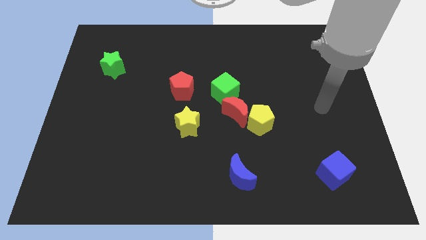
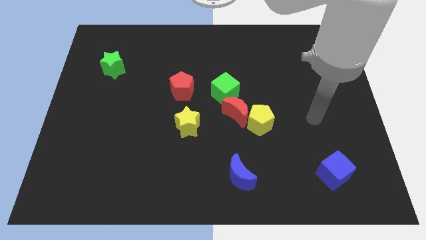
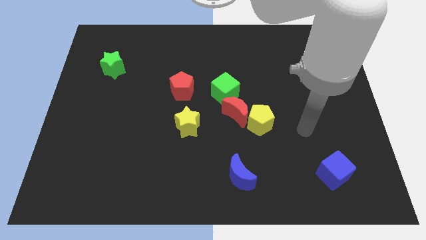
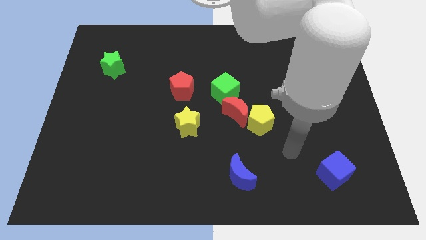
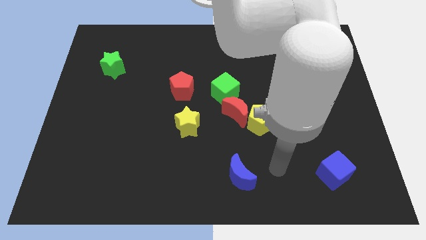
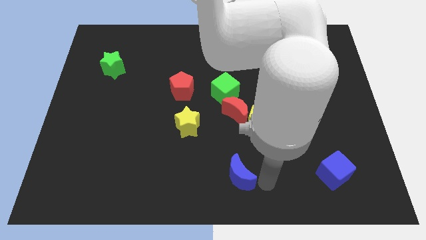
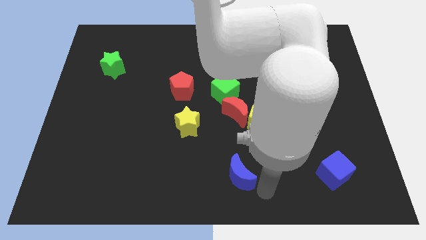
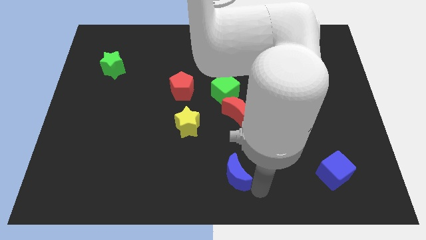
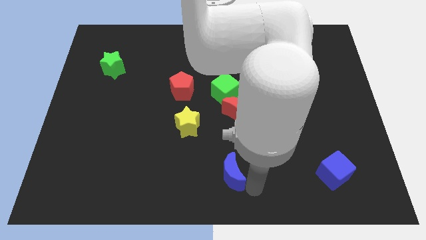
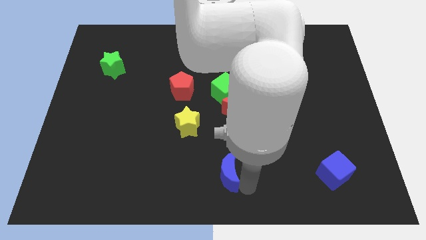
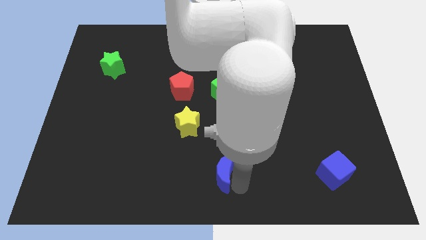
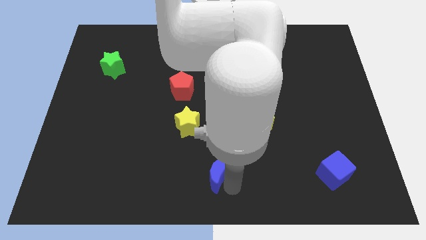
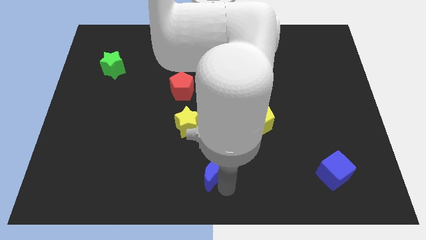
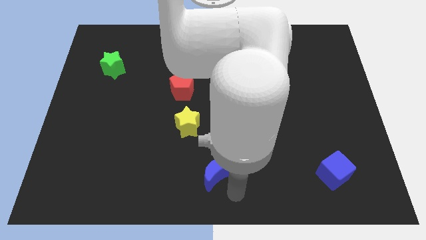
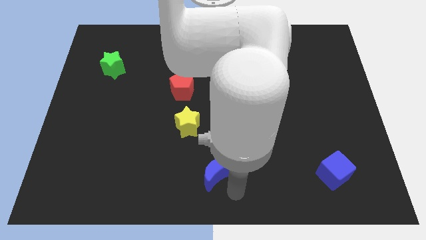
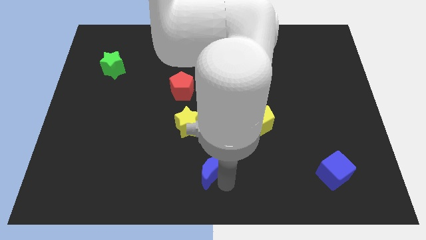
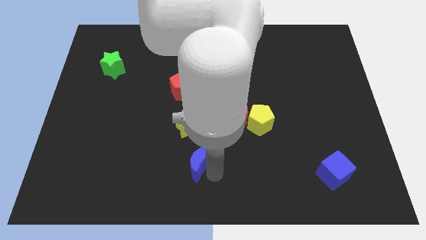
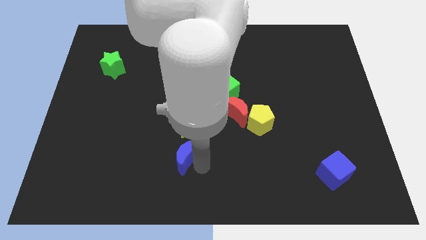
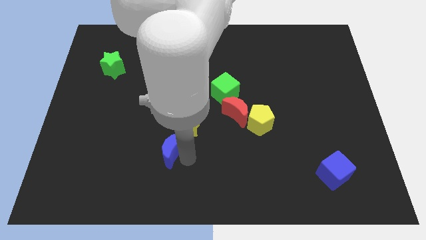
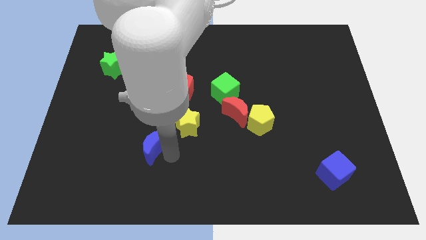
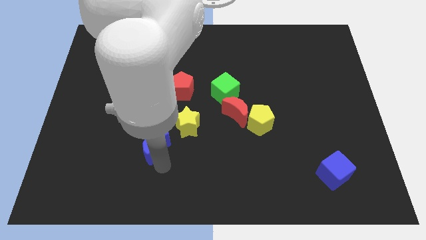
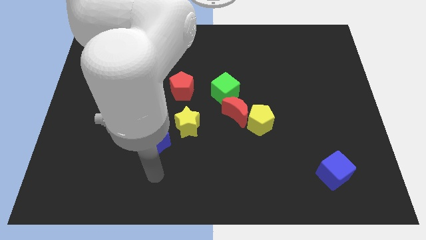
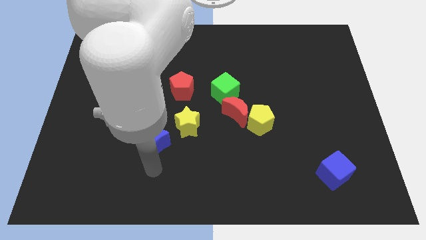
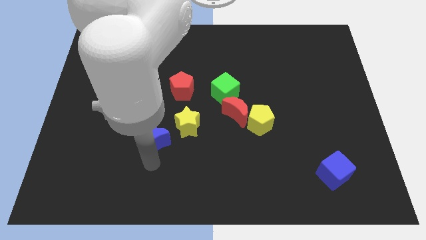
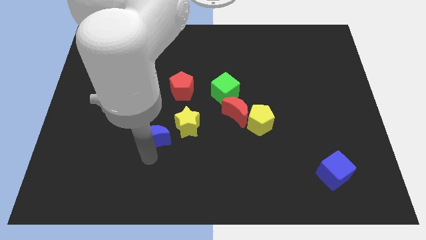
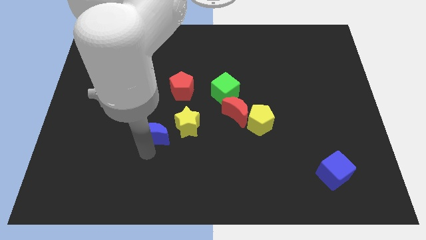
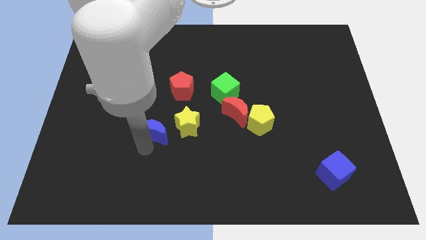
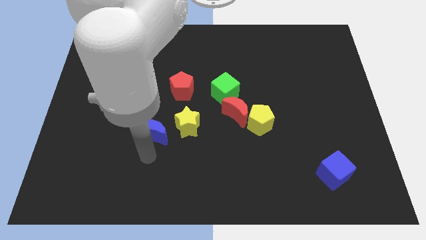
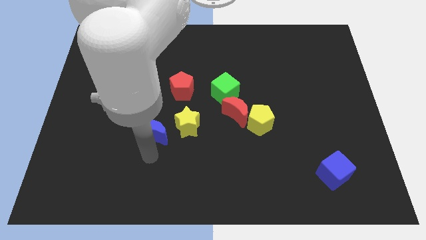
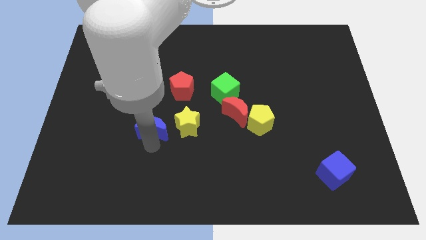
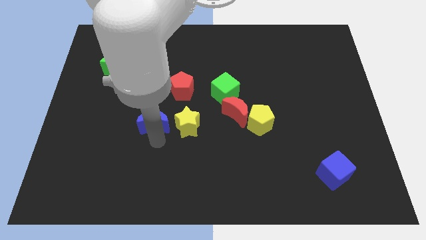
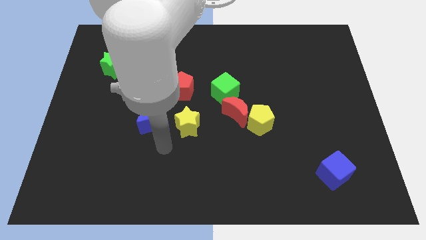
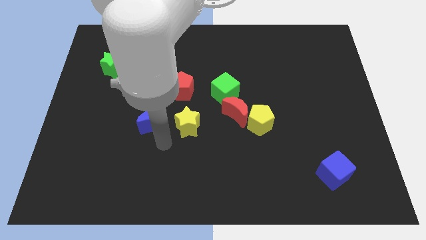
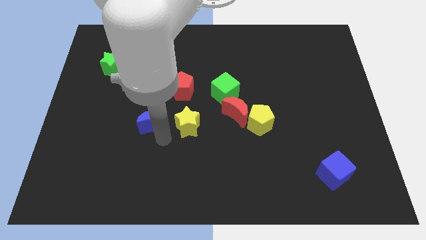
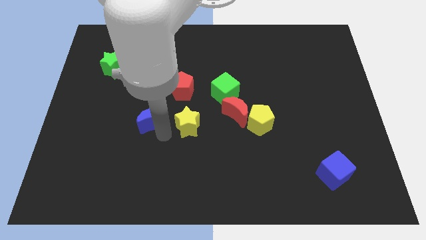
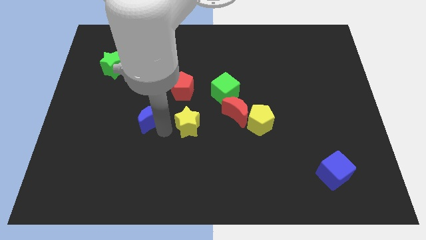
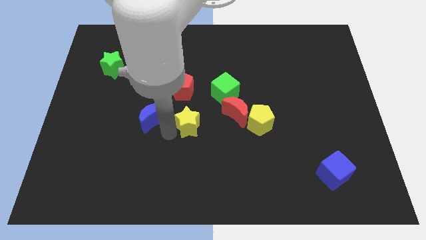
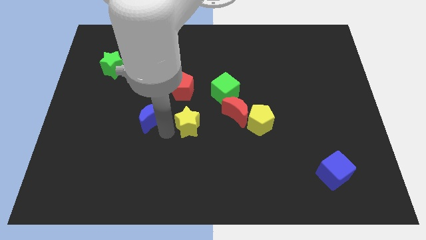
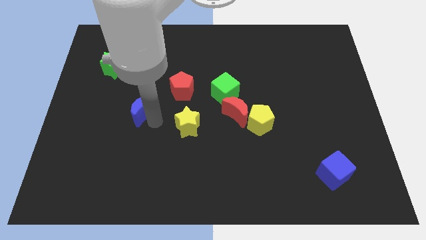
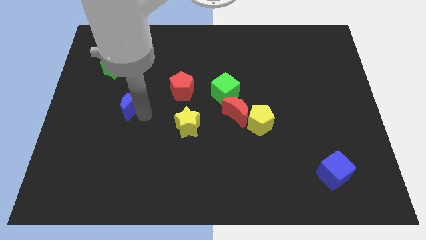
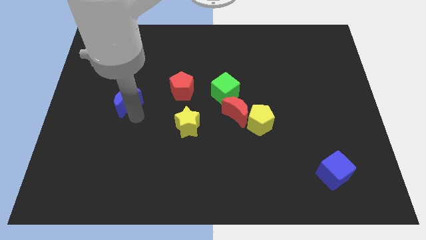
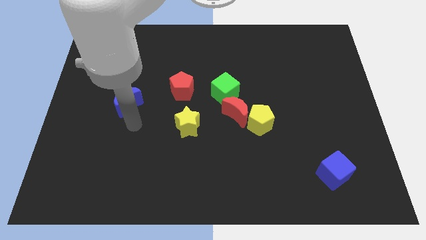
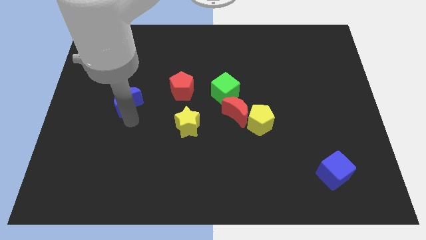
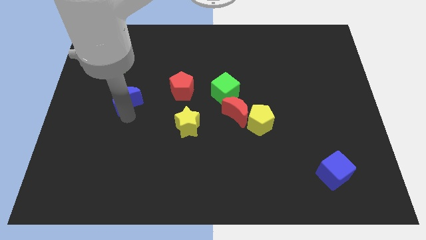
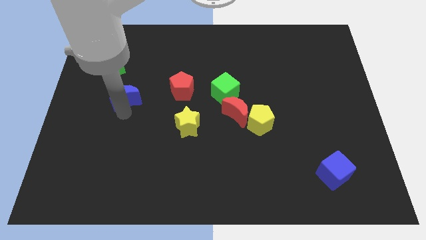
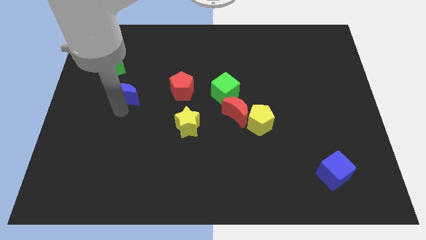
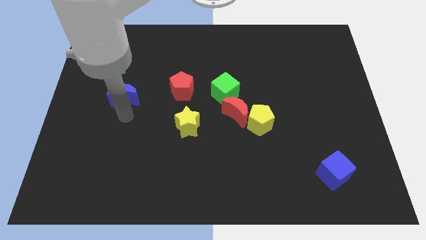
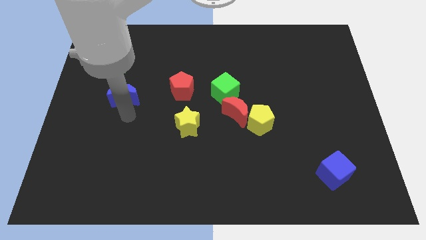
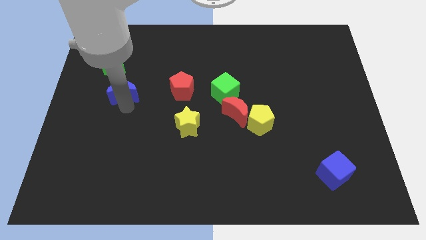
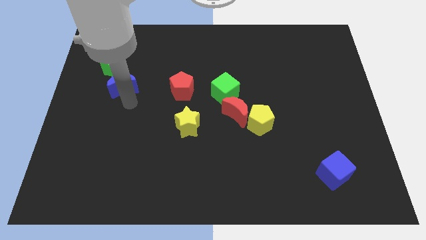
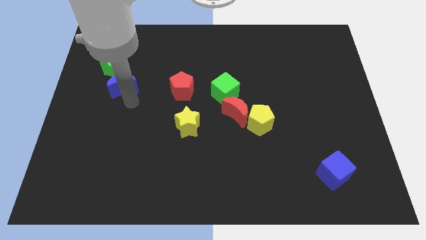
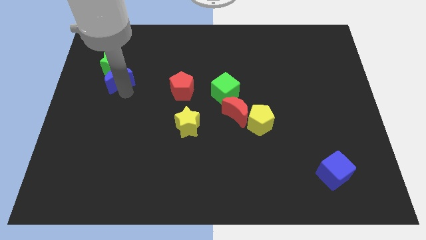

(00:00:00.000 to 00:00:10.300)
put the blue moon to the green star

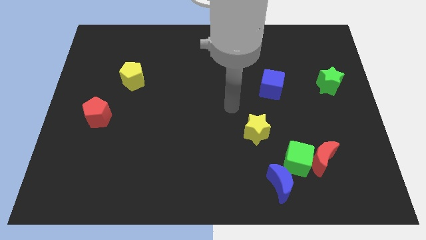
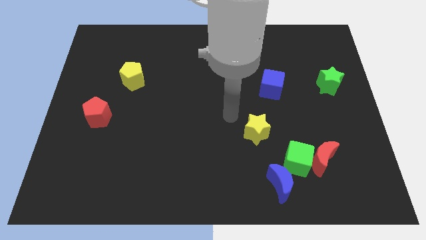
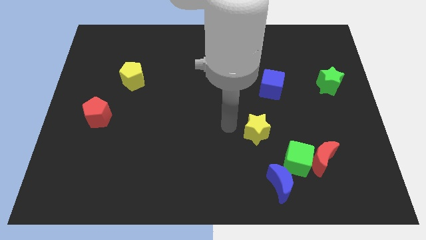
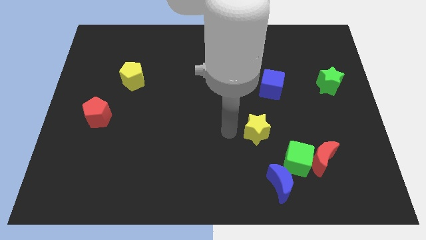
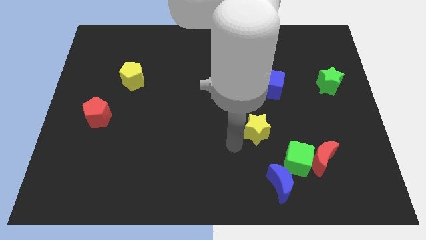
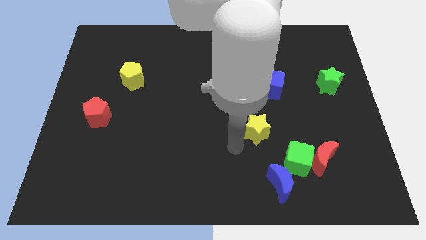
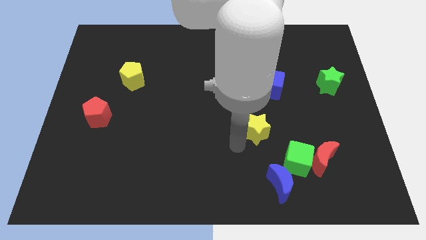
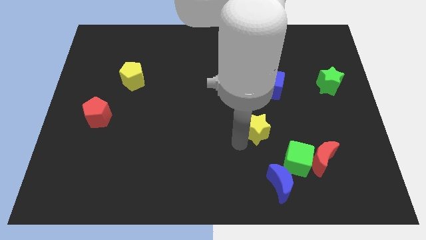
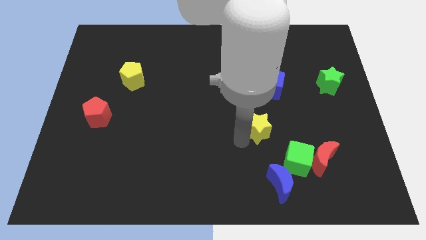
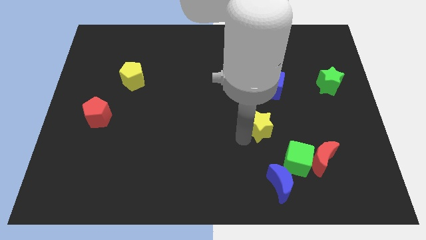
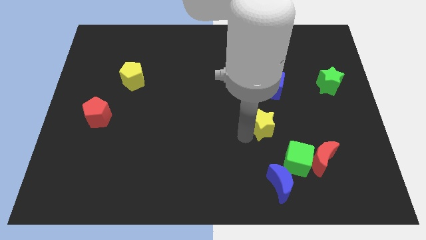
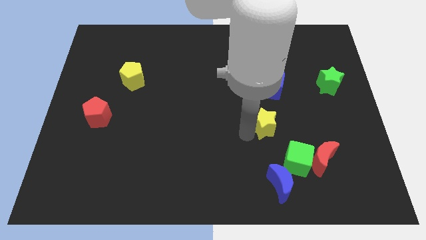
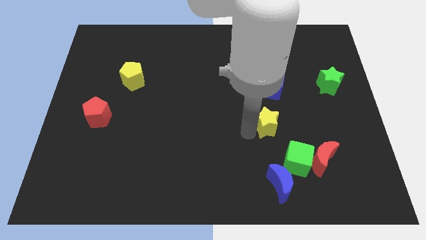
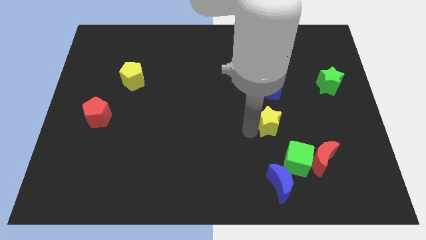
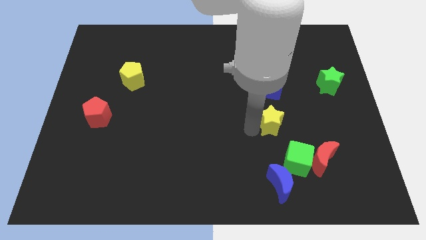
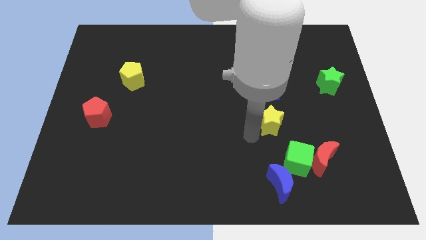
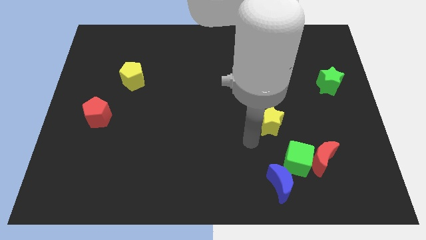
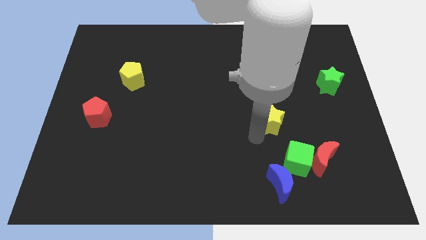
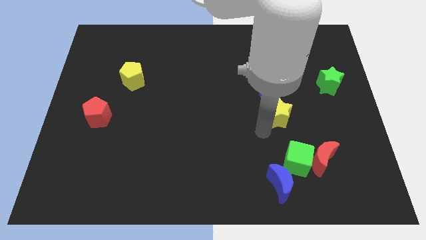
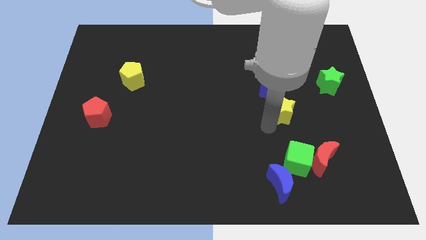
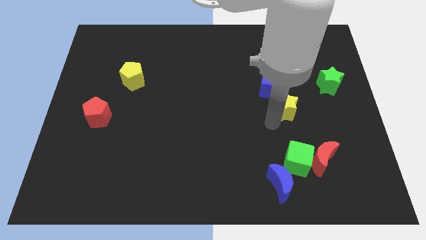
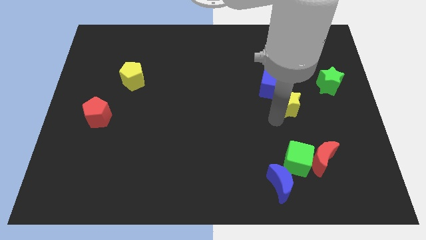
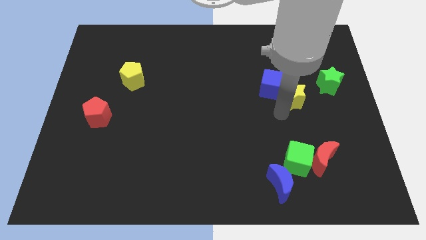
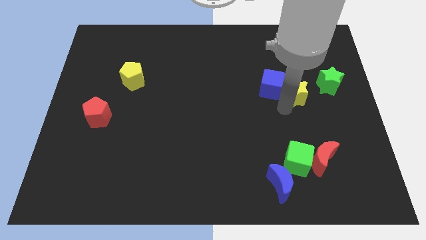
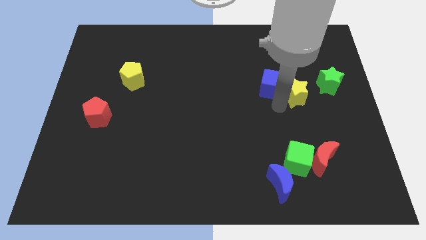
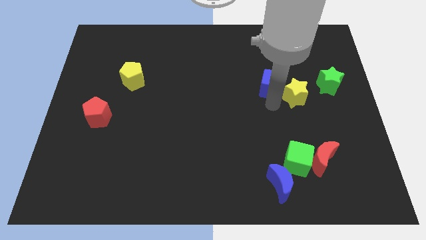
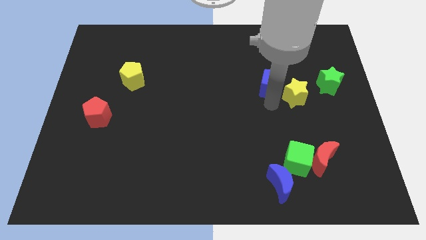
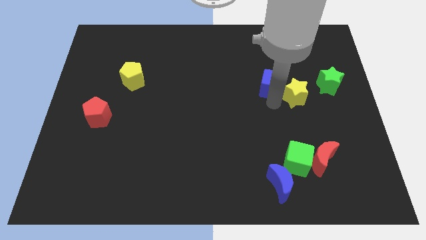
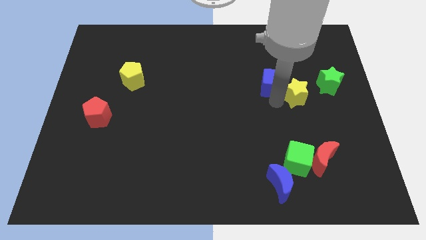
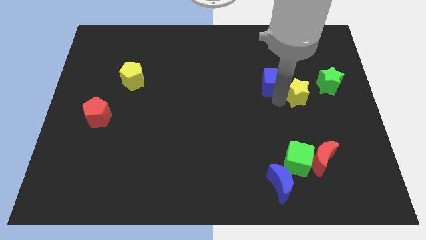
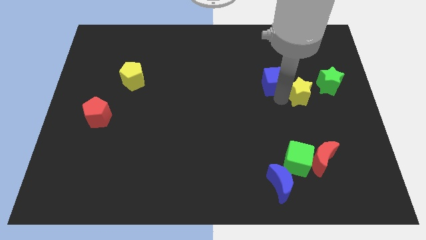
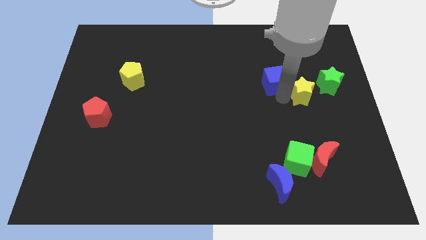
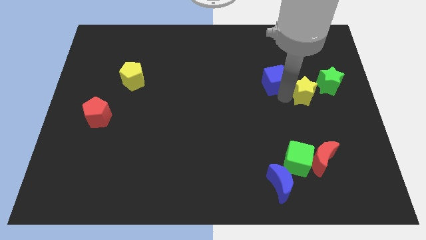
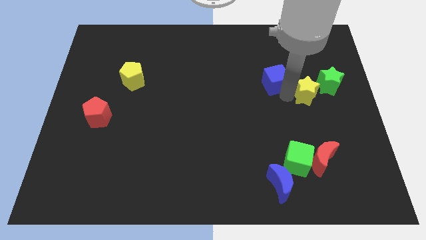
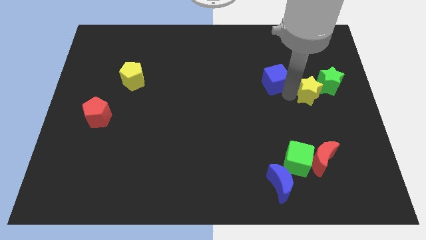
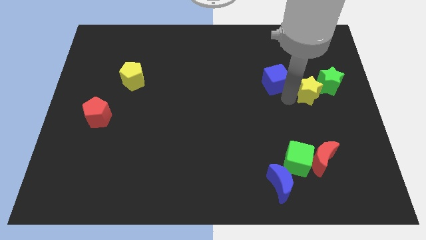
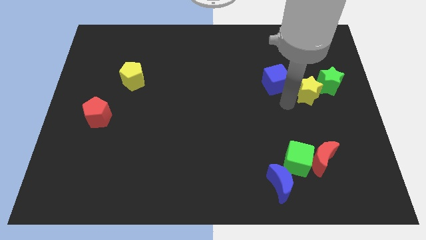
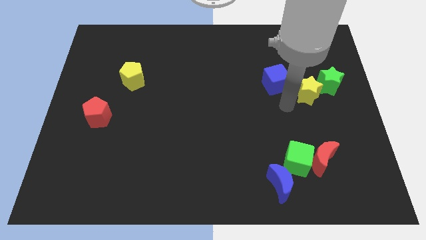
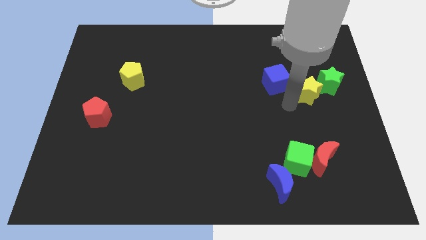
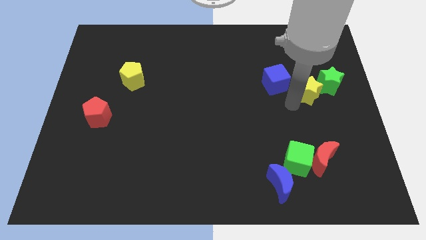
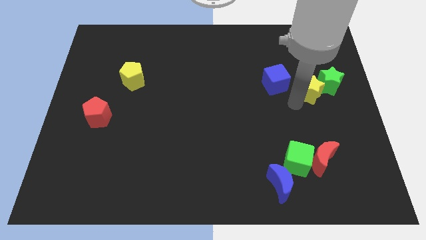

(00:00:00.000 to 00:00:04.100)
move the yellow star next to the green star
